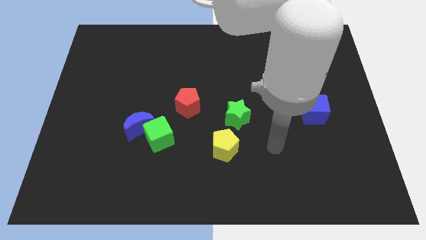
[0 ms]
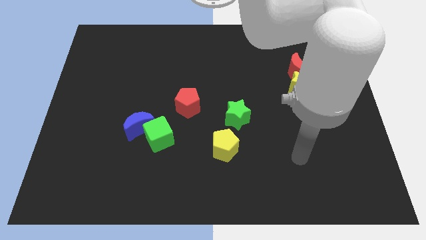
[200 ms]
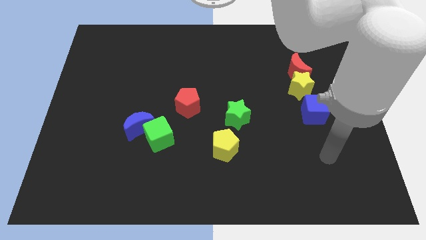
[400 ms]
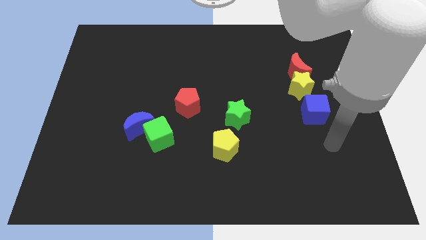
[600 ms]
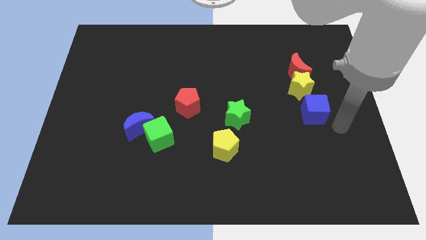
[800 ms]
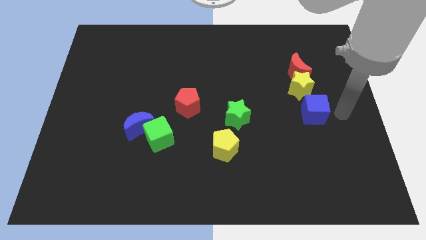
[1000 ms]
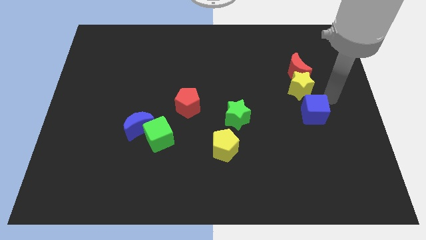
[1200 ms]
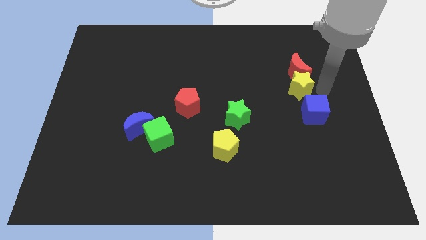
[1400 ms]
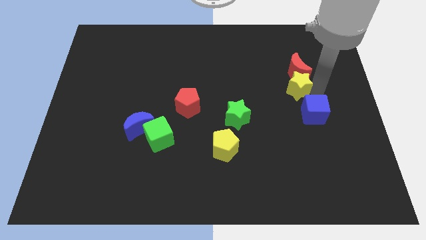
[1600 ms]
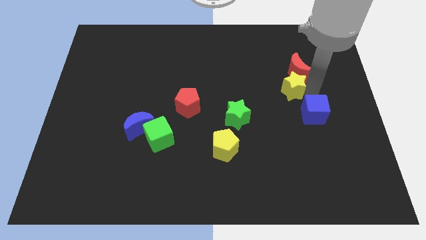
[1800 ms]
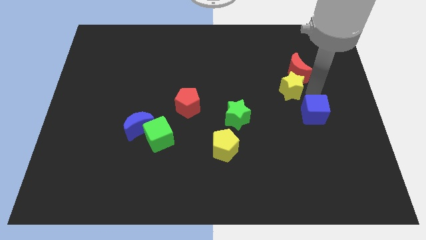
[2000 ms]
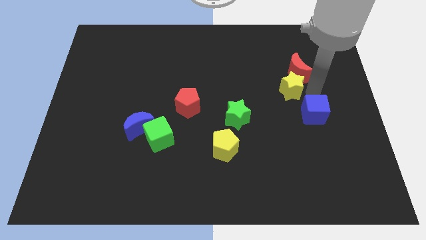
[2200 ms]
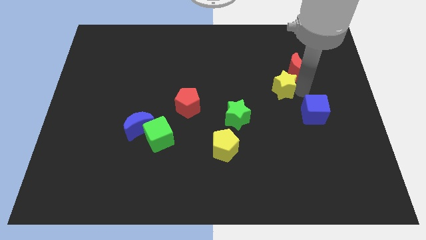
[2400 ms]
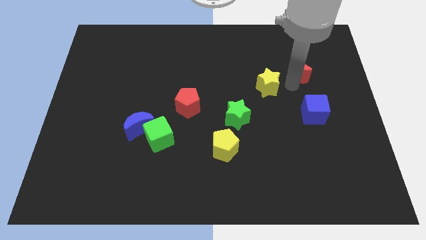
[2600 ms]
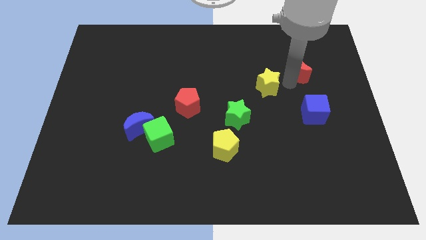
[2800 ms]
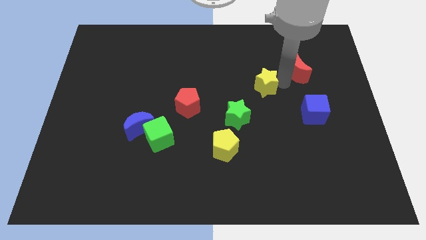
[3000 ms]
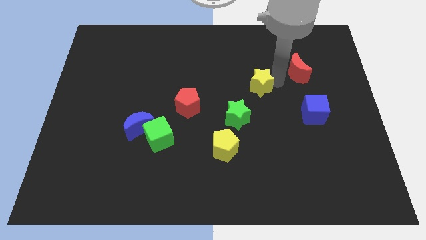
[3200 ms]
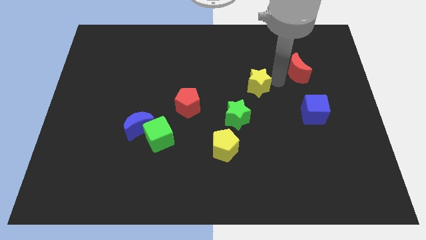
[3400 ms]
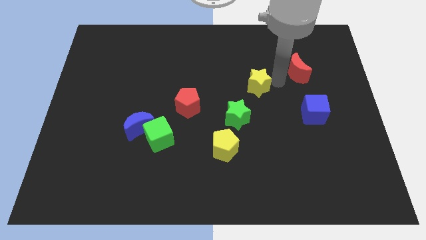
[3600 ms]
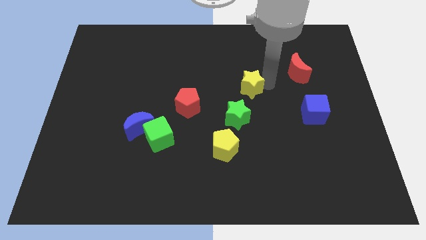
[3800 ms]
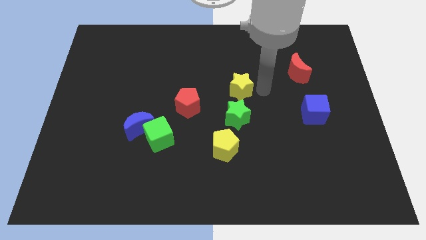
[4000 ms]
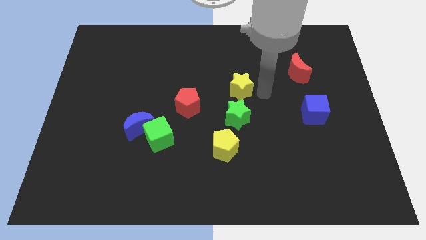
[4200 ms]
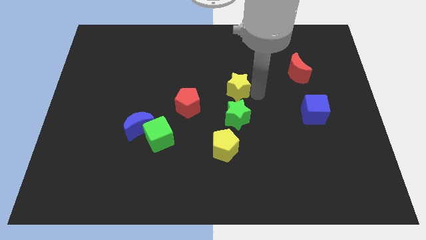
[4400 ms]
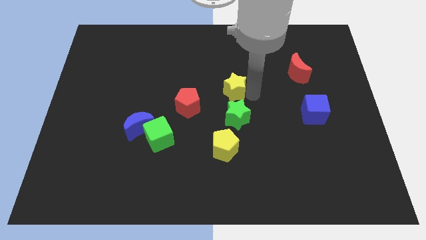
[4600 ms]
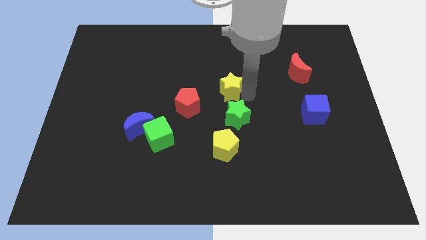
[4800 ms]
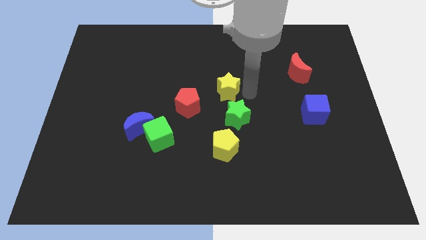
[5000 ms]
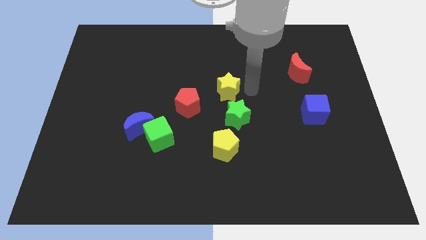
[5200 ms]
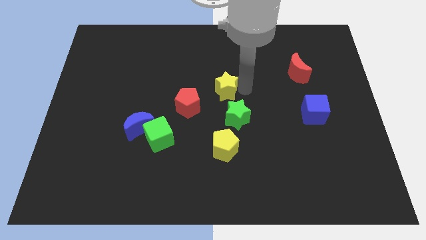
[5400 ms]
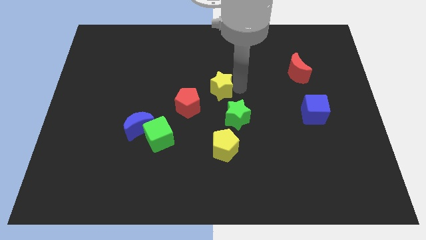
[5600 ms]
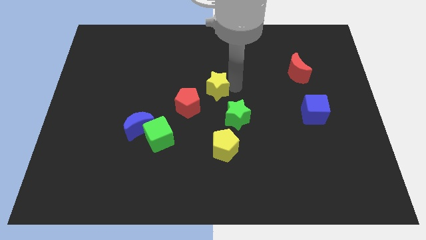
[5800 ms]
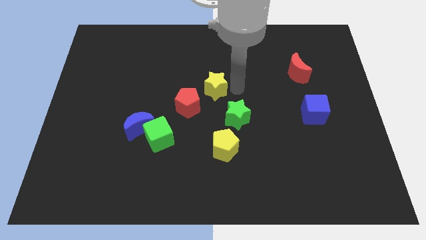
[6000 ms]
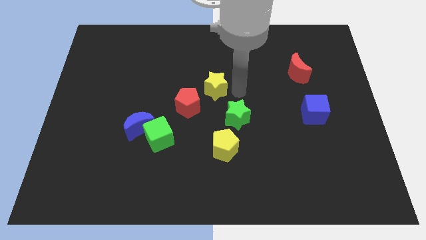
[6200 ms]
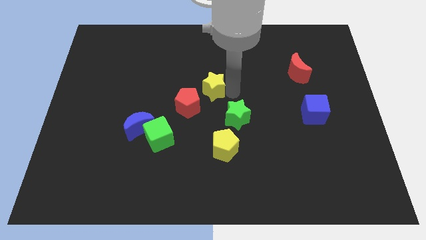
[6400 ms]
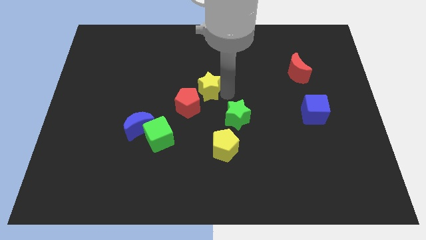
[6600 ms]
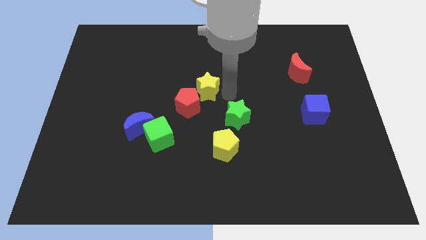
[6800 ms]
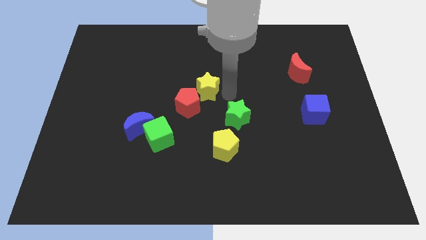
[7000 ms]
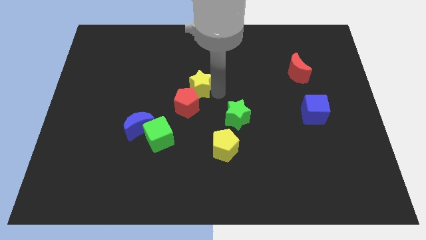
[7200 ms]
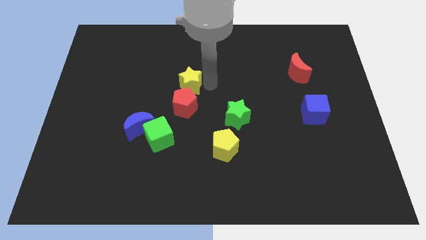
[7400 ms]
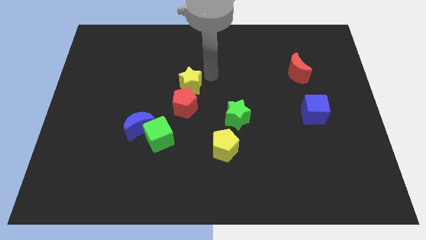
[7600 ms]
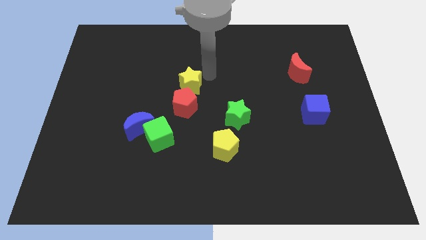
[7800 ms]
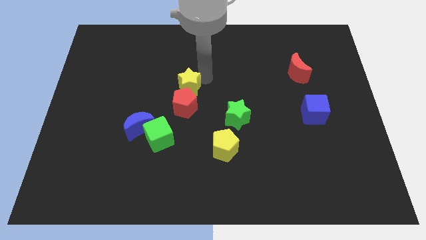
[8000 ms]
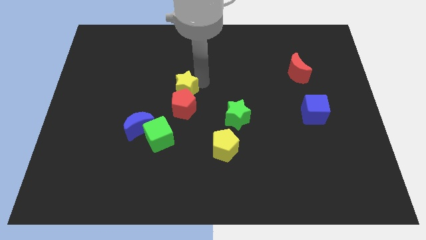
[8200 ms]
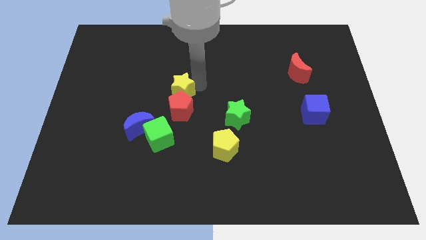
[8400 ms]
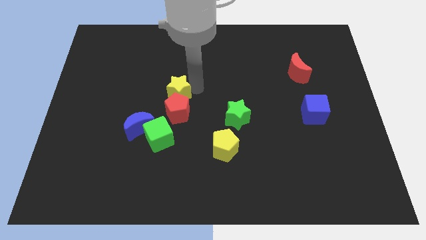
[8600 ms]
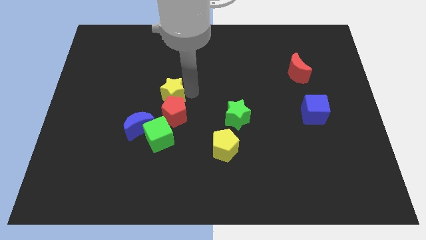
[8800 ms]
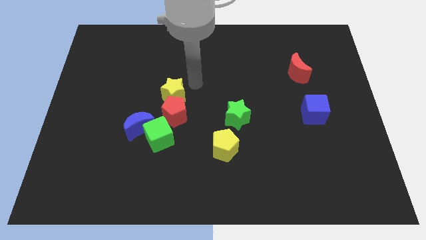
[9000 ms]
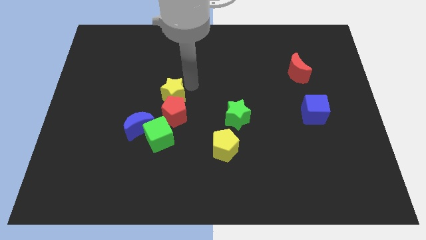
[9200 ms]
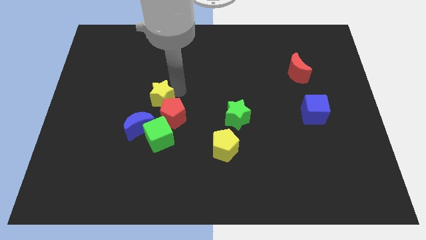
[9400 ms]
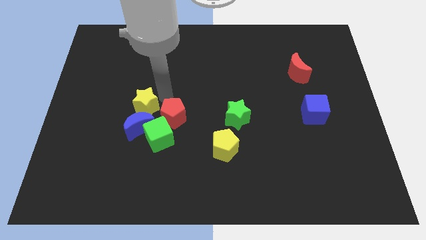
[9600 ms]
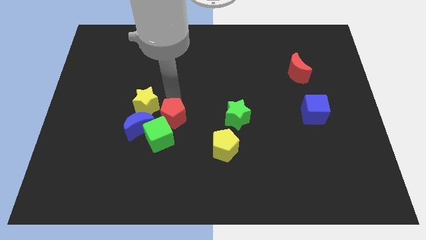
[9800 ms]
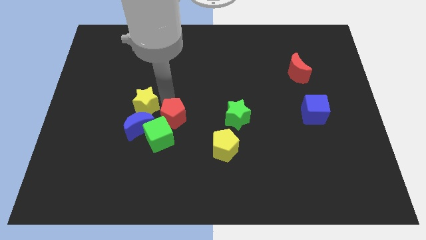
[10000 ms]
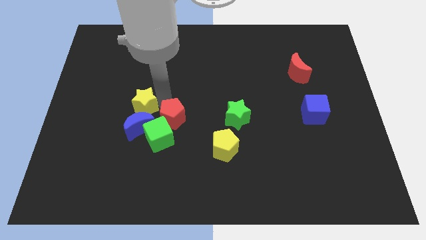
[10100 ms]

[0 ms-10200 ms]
slide the yellow star diagonally up and to the left of the blue moon

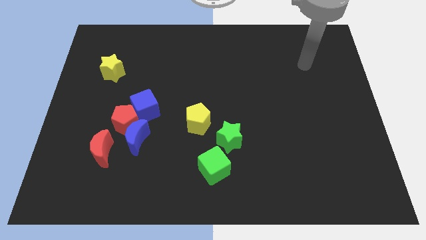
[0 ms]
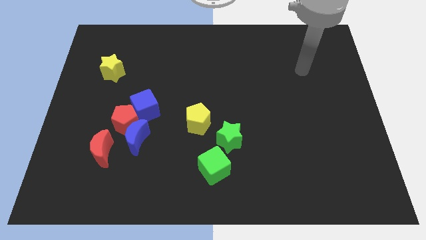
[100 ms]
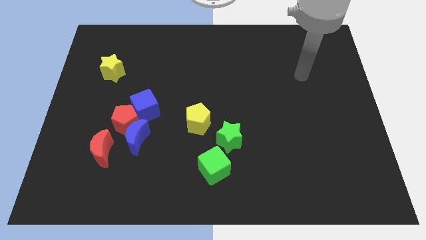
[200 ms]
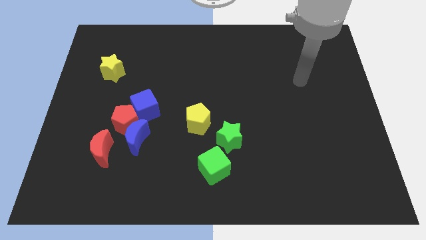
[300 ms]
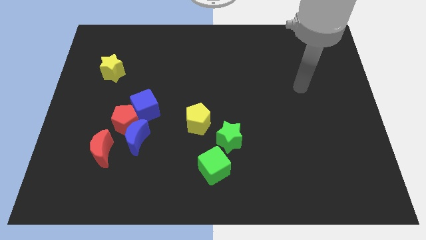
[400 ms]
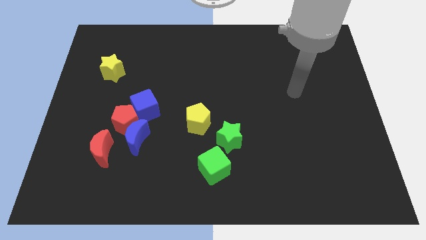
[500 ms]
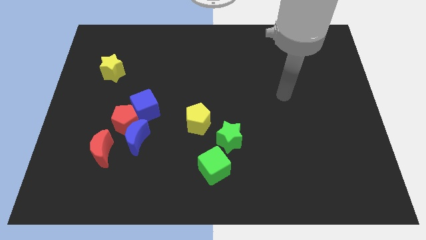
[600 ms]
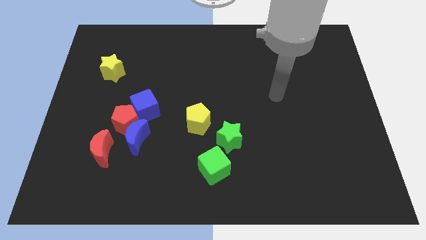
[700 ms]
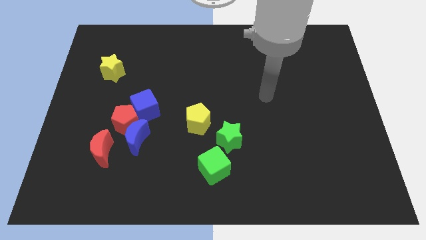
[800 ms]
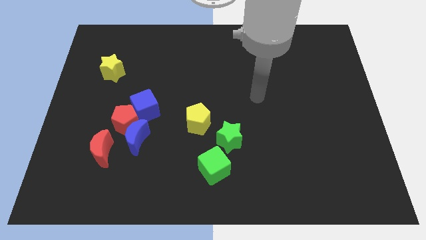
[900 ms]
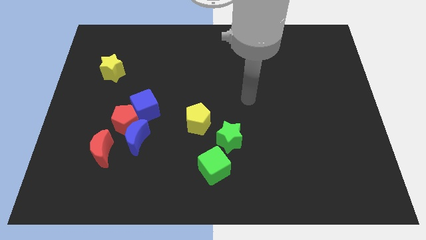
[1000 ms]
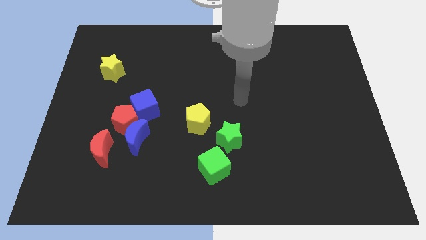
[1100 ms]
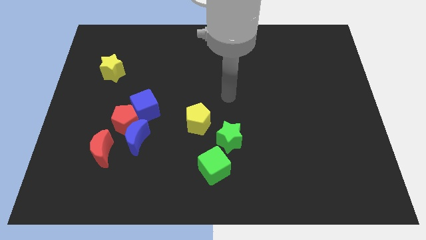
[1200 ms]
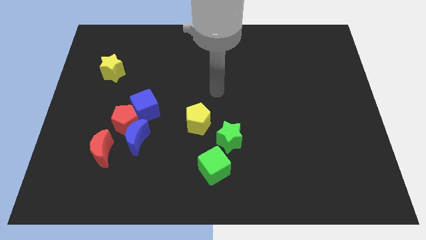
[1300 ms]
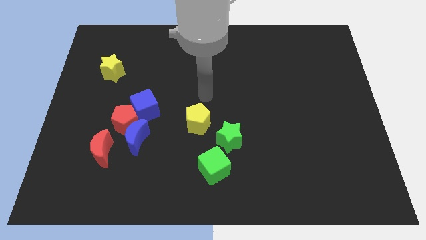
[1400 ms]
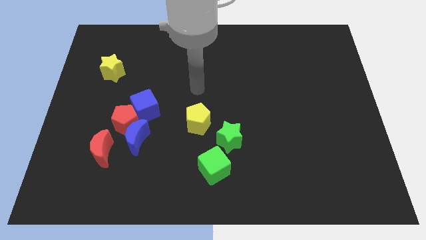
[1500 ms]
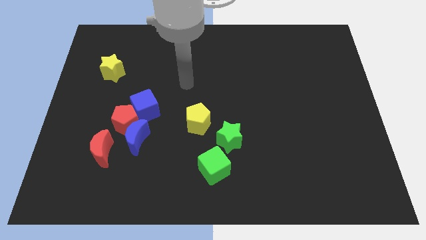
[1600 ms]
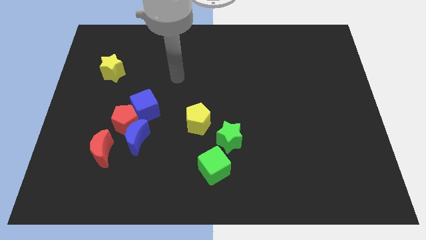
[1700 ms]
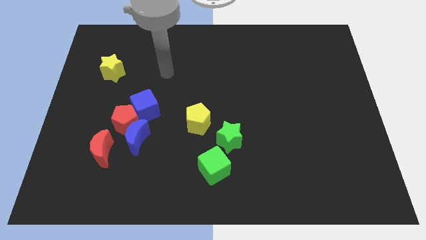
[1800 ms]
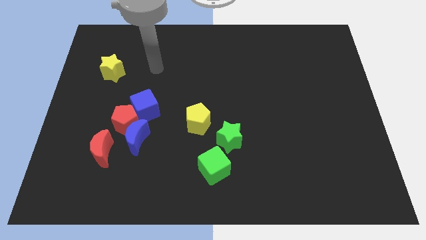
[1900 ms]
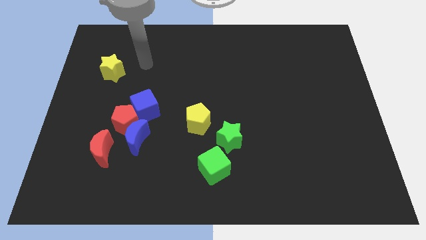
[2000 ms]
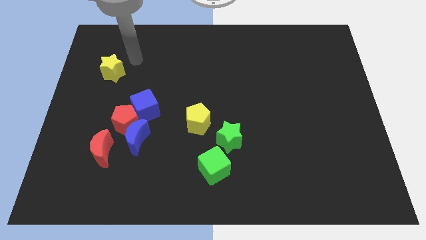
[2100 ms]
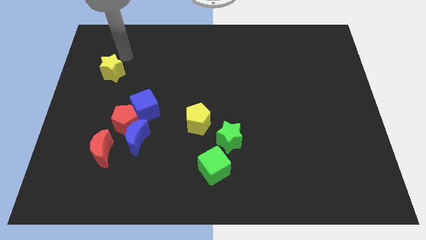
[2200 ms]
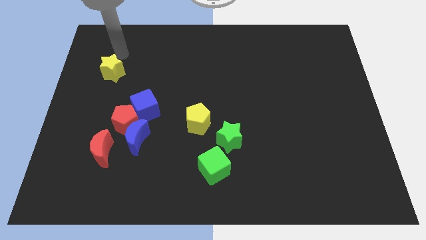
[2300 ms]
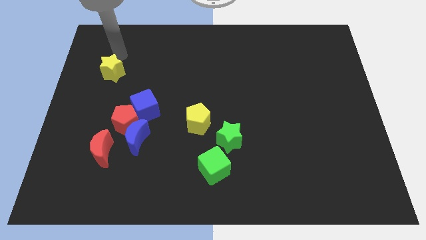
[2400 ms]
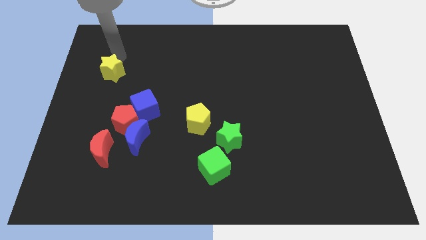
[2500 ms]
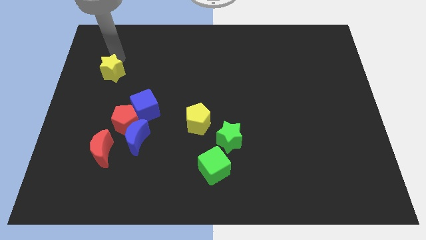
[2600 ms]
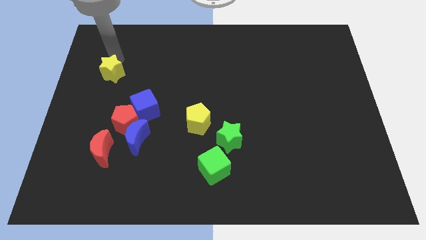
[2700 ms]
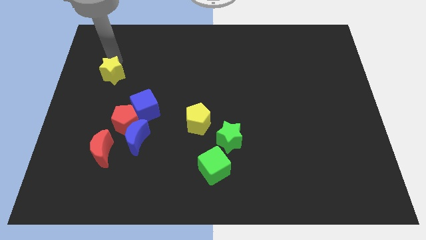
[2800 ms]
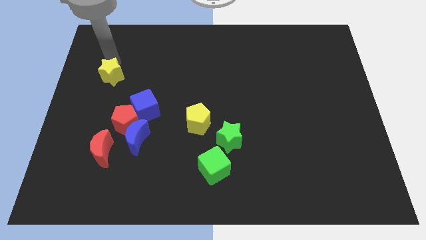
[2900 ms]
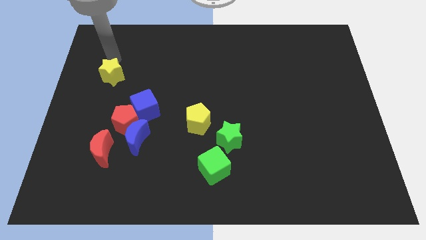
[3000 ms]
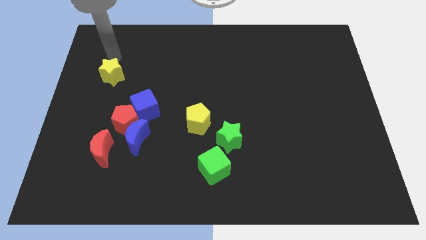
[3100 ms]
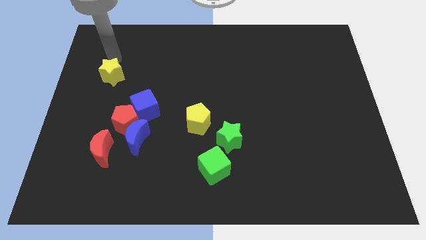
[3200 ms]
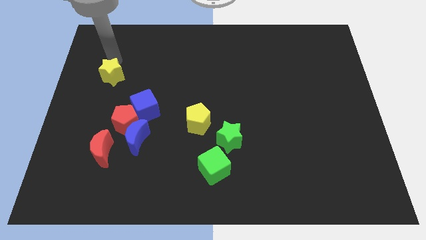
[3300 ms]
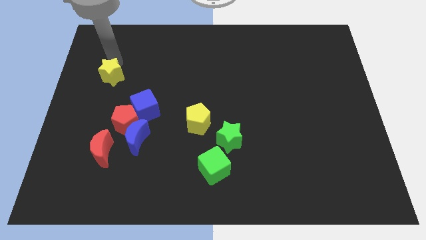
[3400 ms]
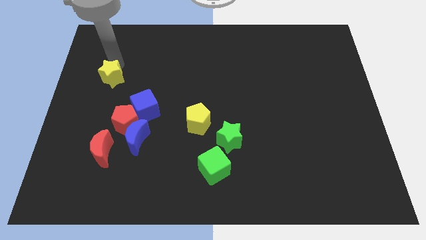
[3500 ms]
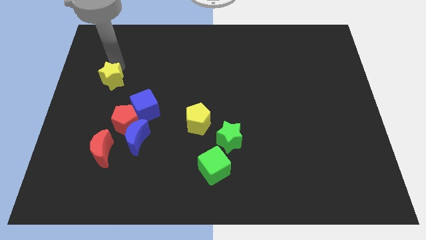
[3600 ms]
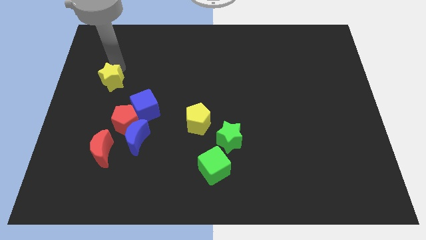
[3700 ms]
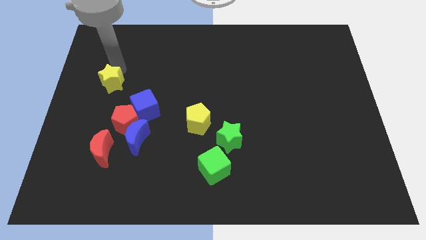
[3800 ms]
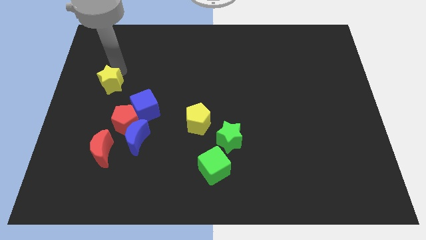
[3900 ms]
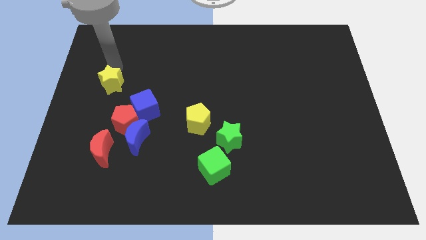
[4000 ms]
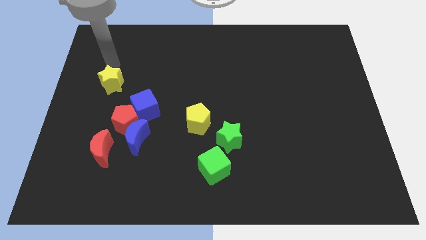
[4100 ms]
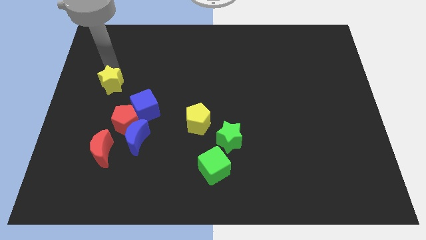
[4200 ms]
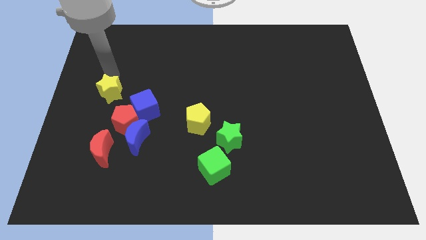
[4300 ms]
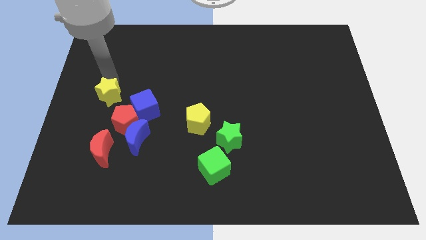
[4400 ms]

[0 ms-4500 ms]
put the yellow star to the top of the red moon
